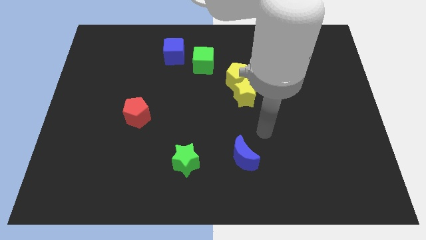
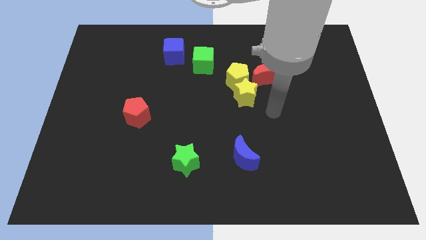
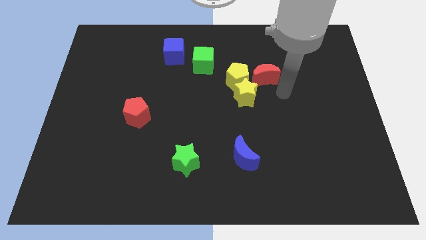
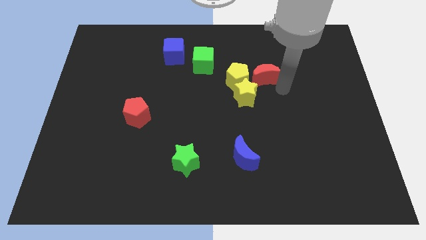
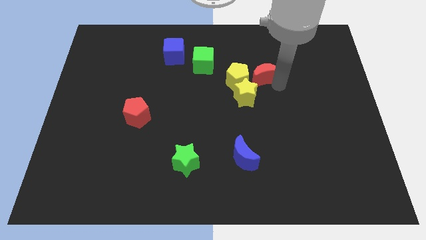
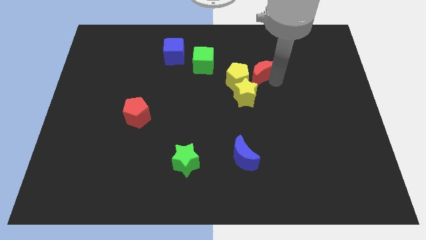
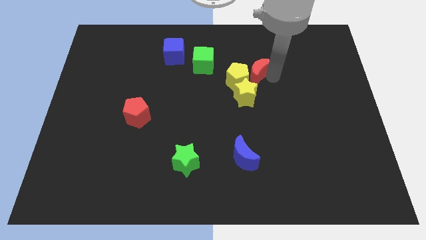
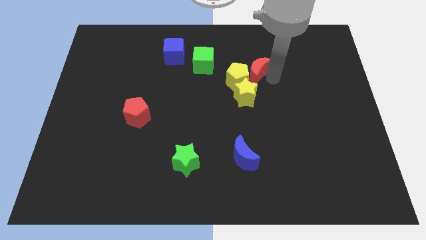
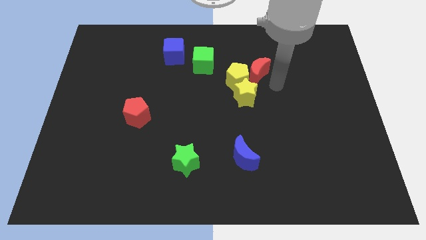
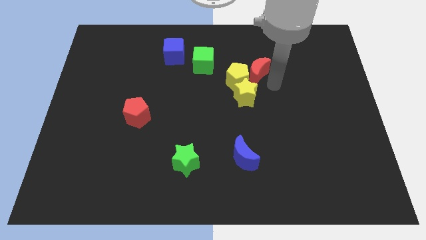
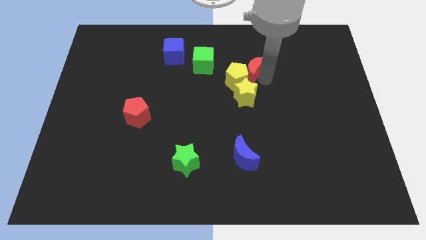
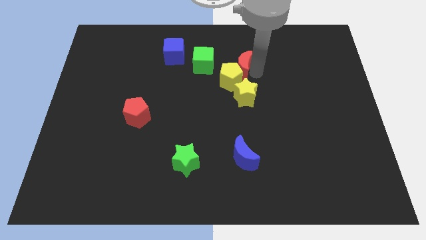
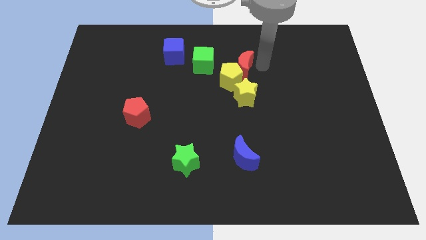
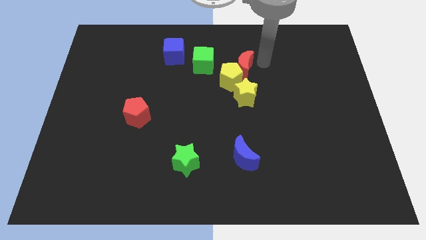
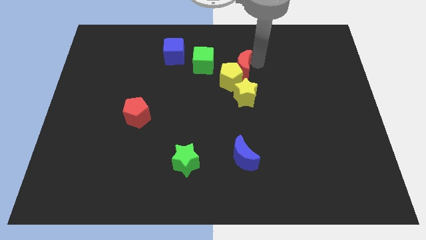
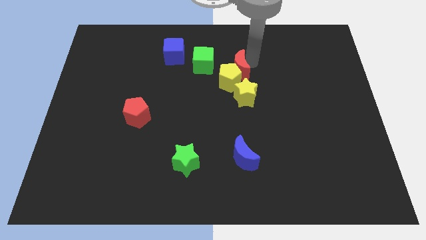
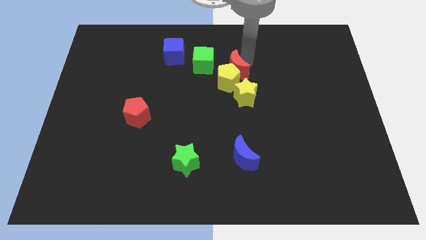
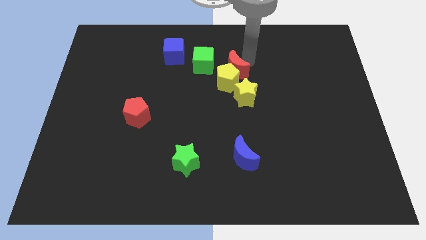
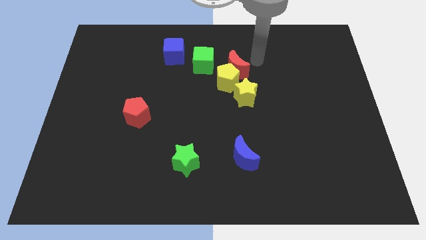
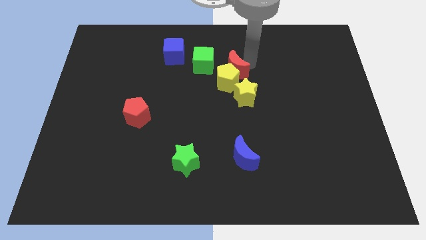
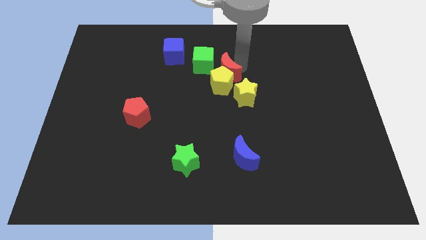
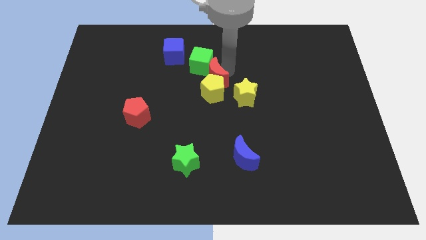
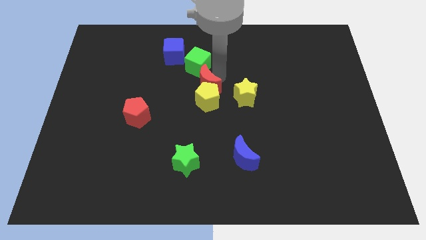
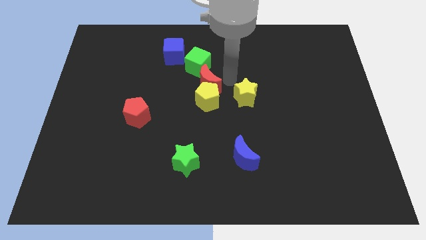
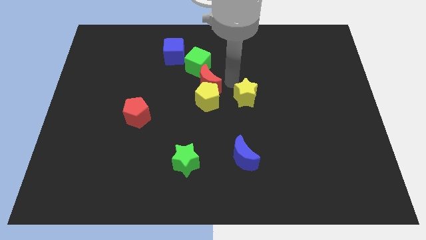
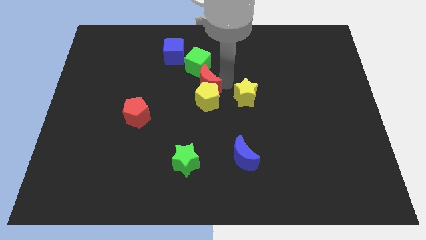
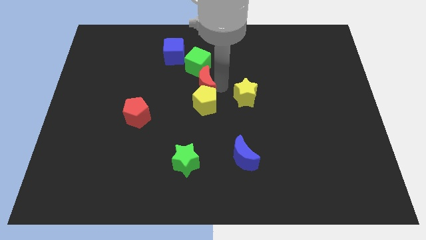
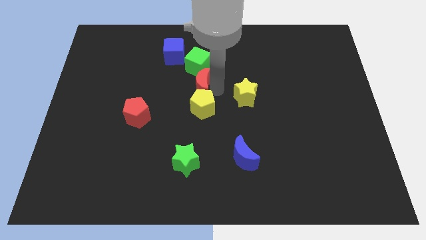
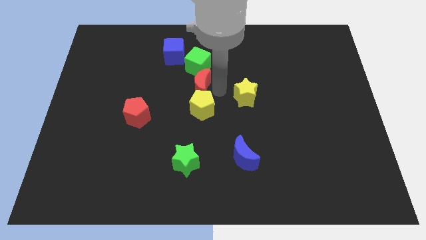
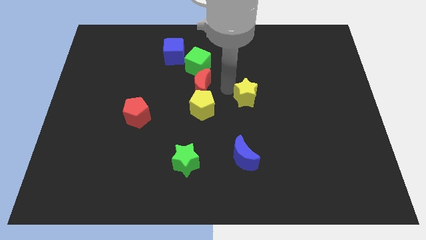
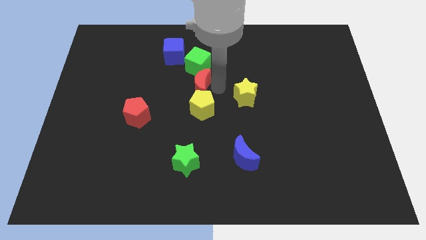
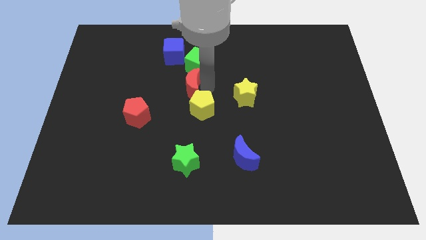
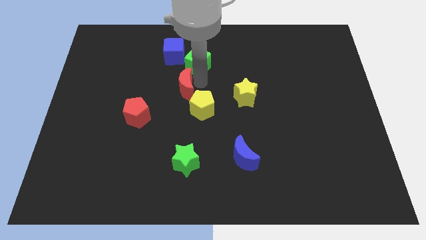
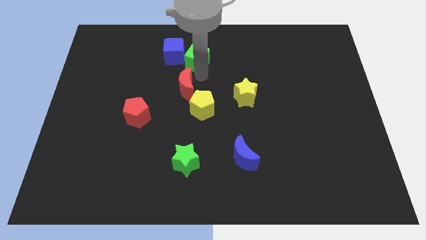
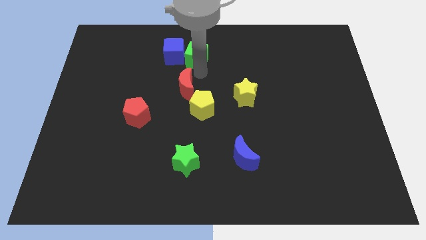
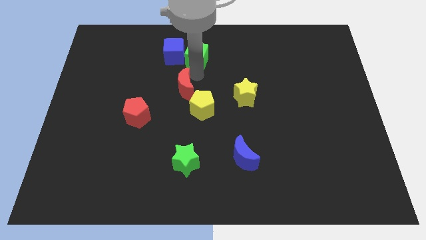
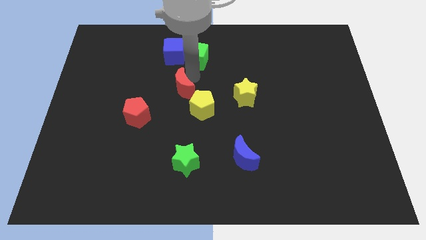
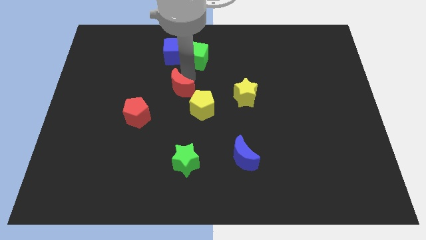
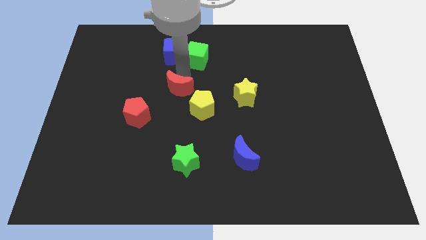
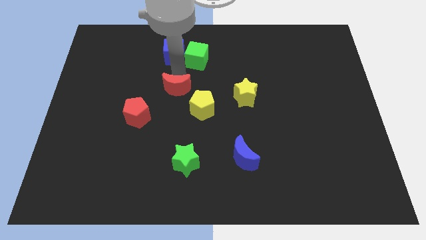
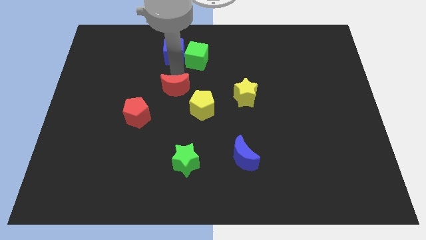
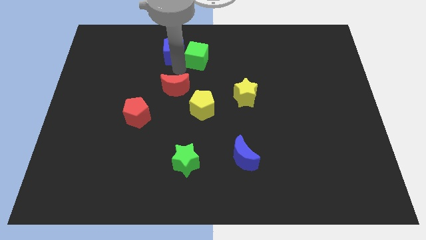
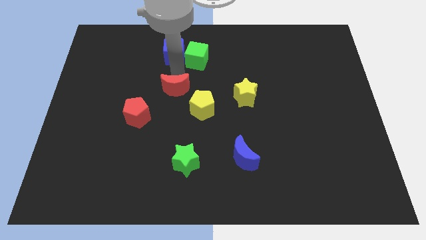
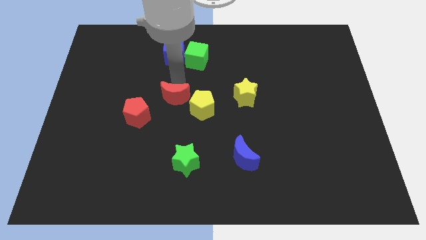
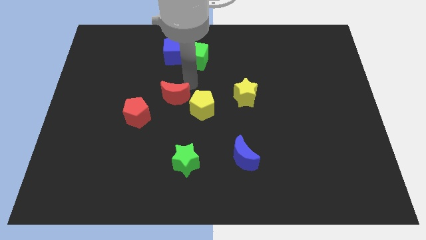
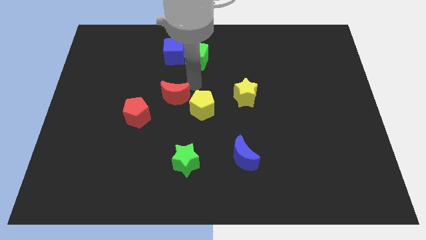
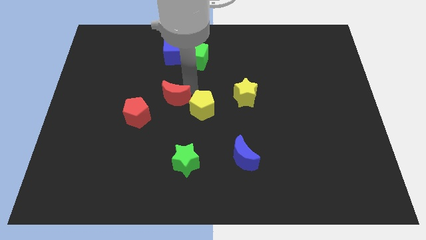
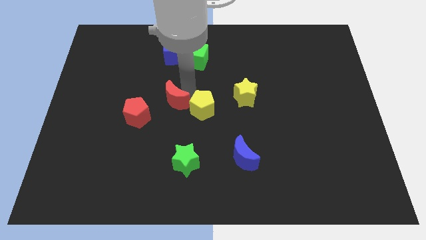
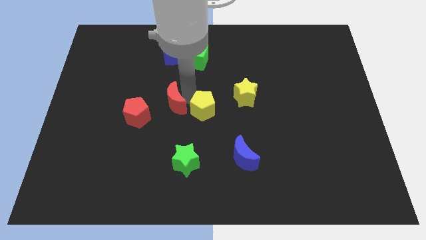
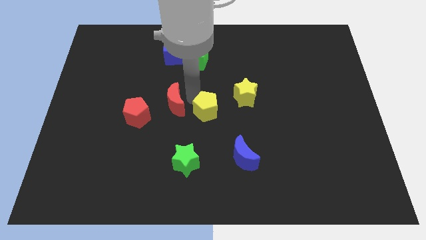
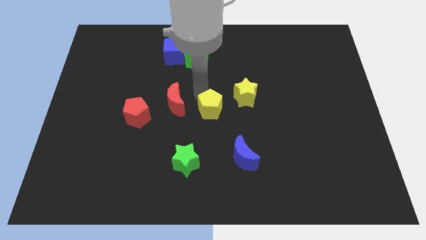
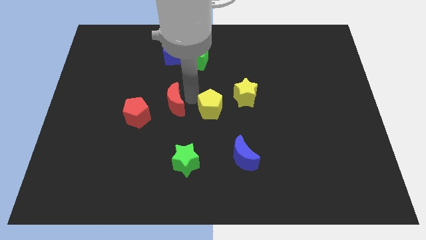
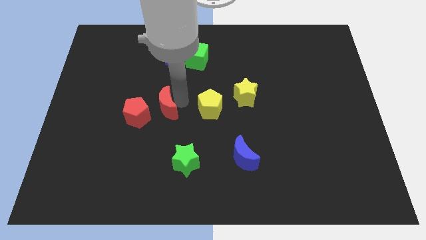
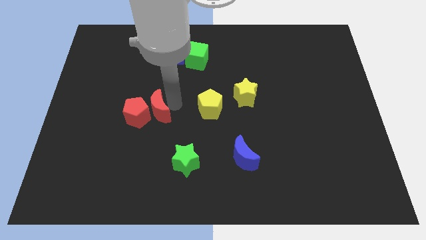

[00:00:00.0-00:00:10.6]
push the red moon close to the red pentagon

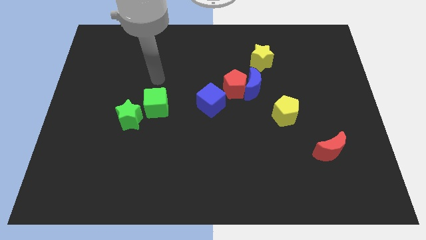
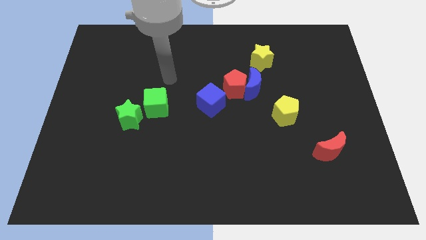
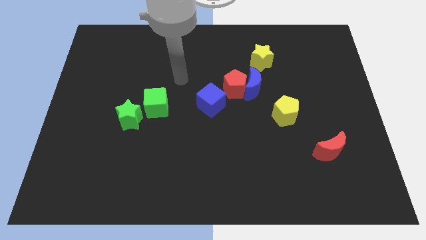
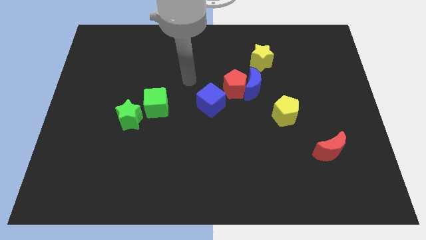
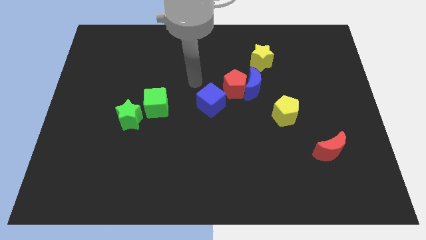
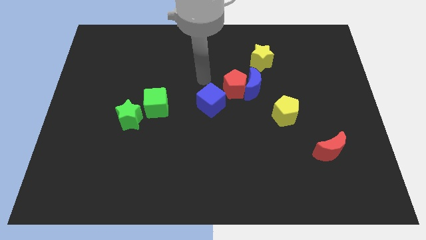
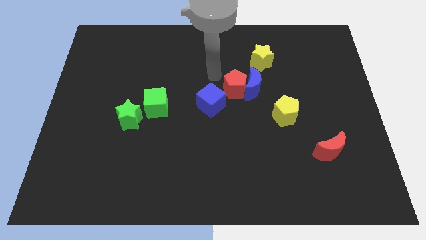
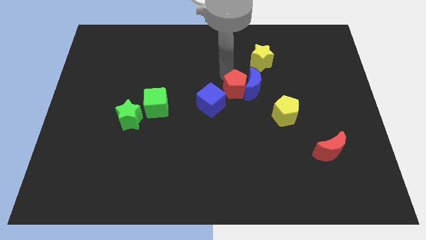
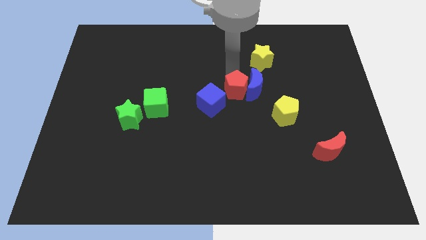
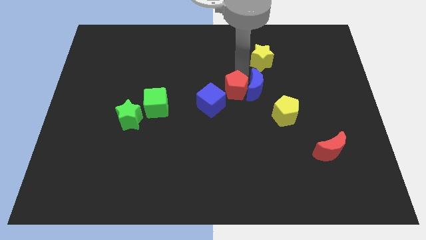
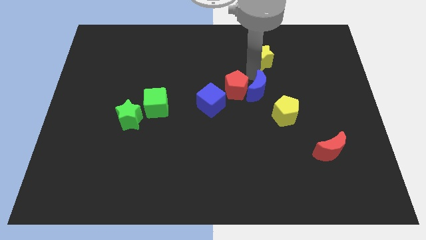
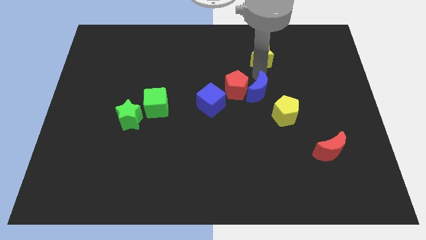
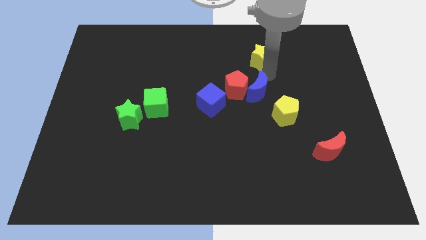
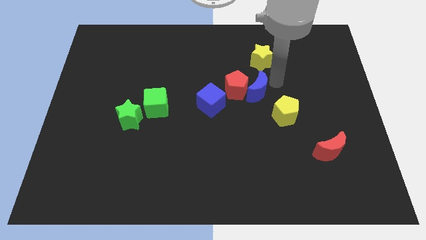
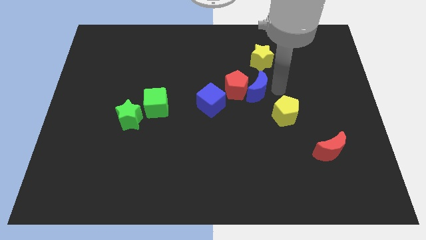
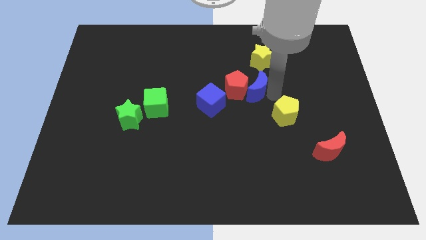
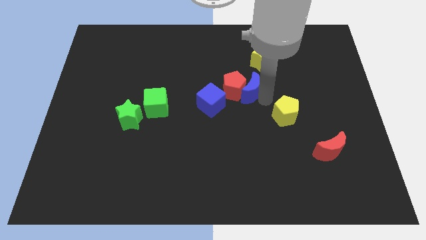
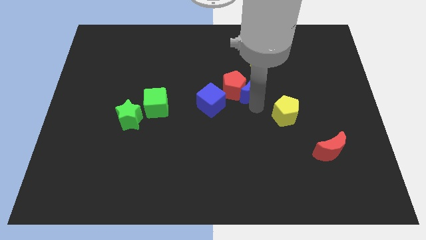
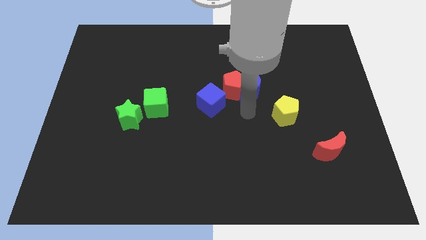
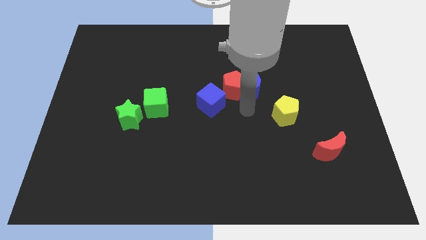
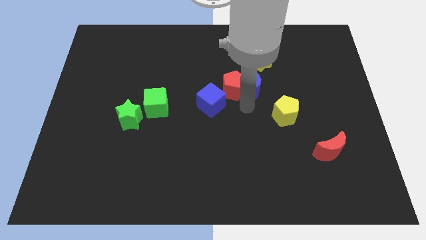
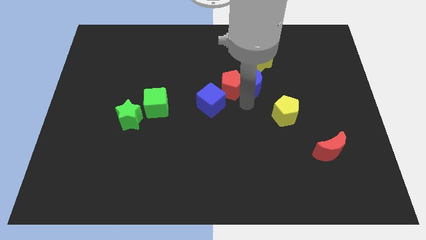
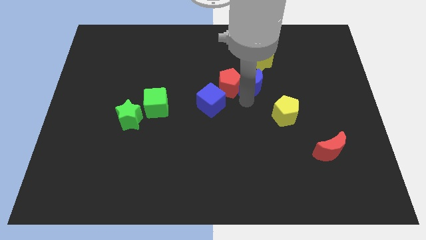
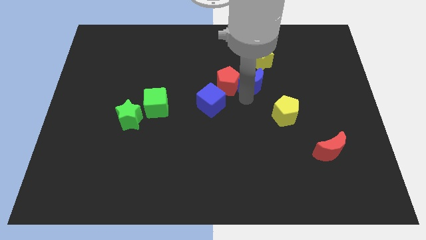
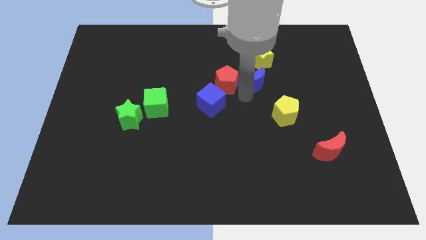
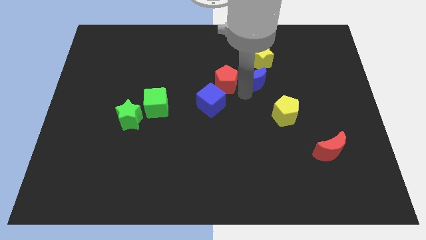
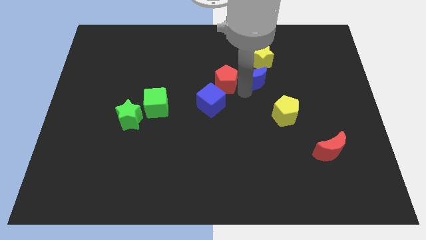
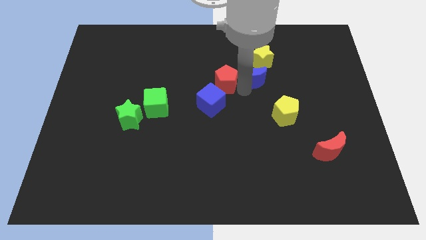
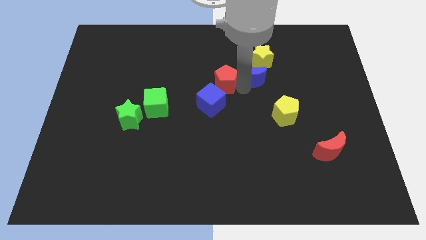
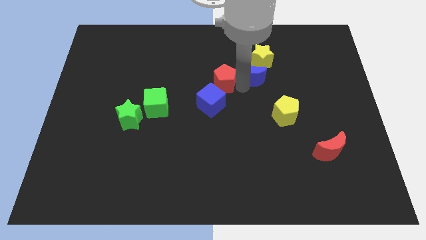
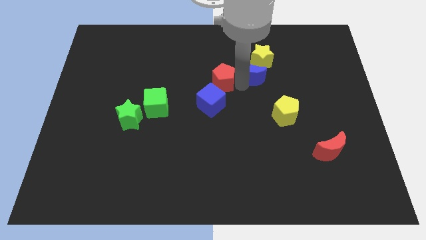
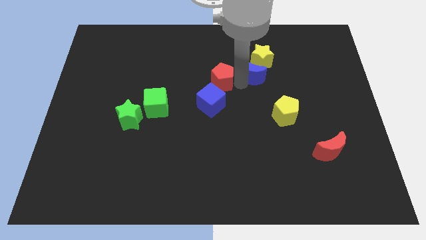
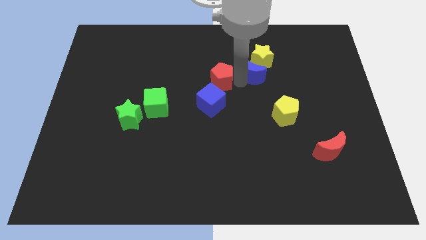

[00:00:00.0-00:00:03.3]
put the blue moon next to the yellow star
